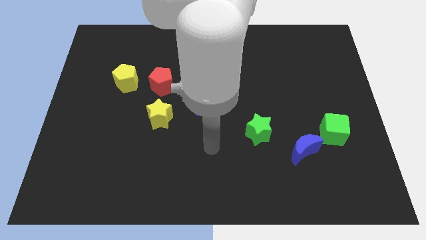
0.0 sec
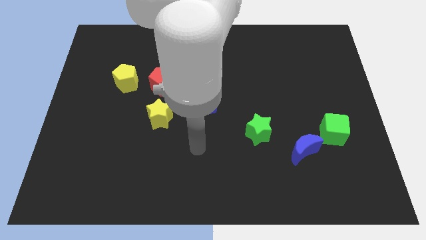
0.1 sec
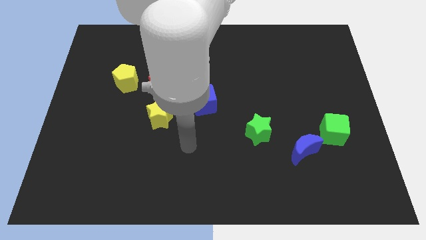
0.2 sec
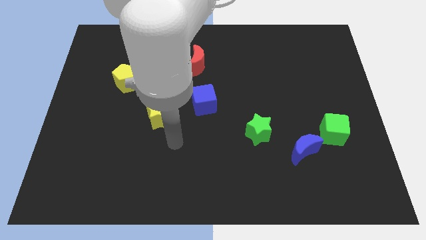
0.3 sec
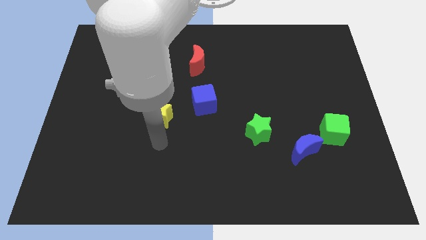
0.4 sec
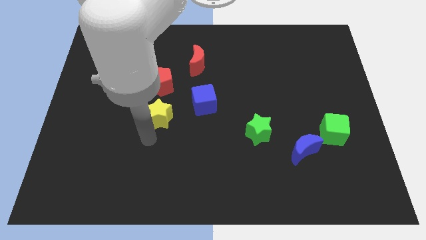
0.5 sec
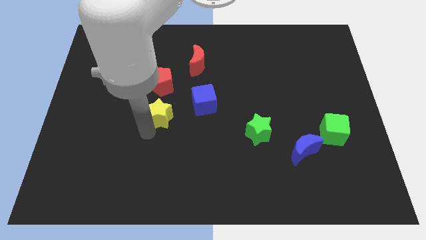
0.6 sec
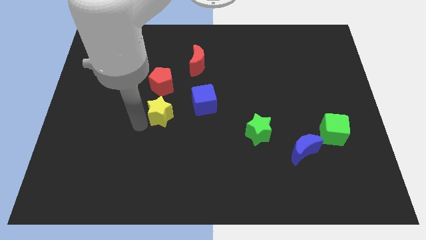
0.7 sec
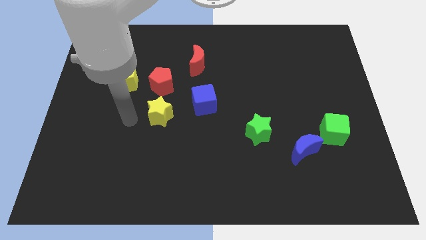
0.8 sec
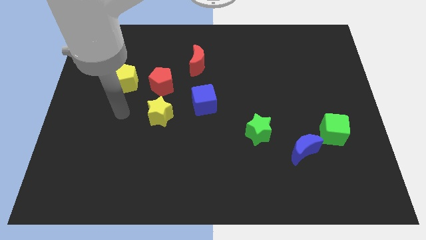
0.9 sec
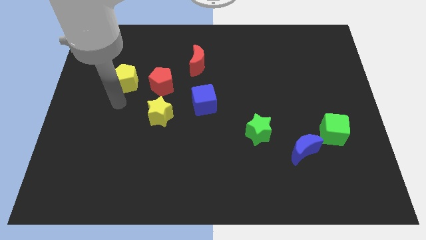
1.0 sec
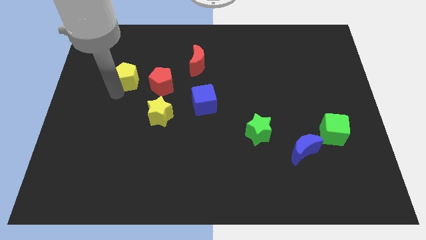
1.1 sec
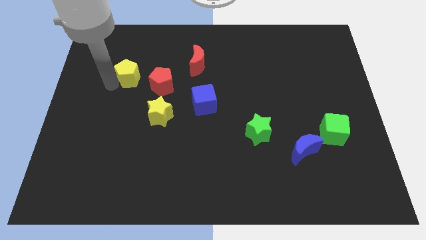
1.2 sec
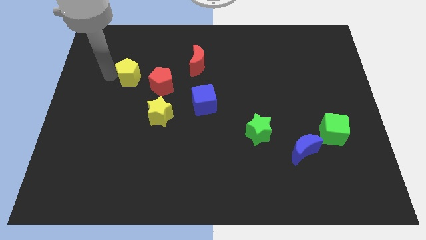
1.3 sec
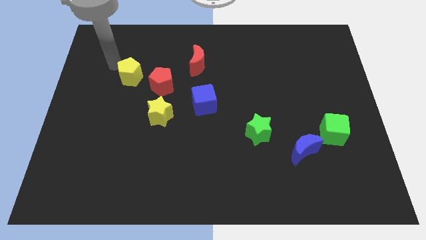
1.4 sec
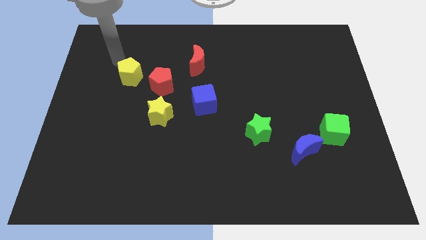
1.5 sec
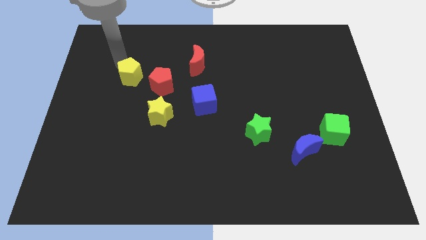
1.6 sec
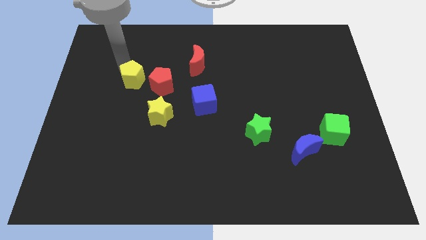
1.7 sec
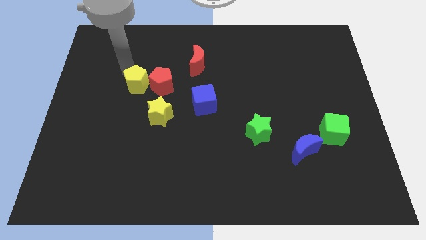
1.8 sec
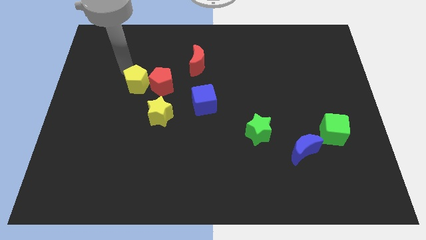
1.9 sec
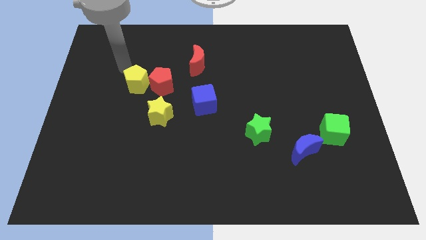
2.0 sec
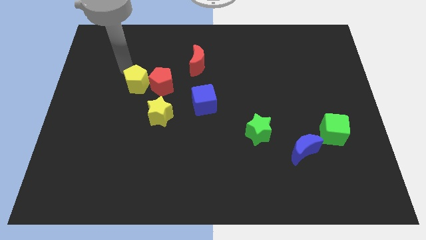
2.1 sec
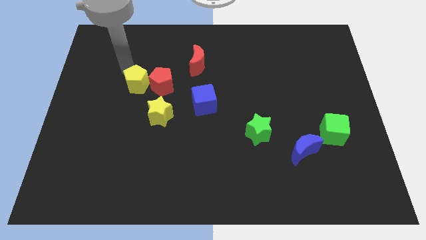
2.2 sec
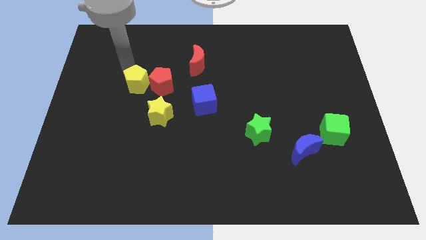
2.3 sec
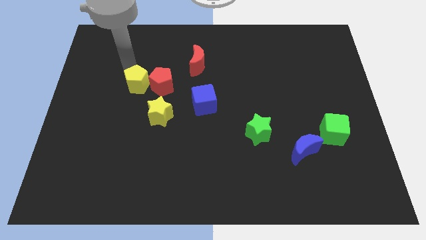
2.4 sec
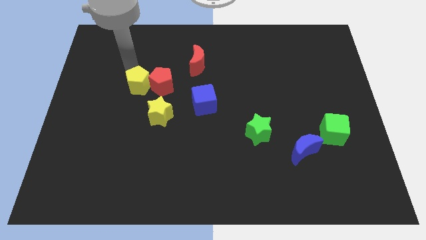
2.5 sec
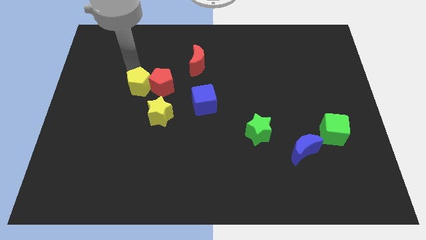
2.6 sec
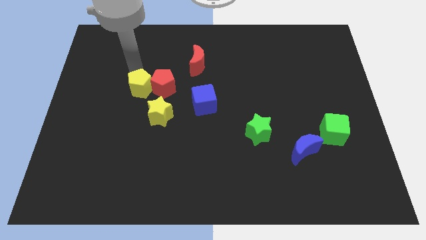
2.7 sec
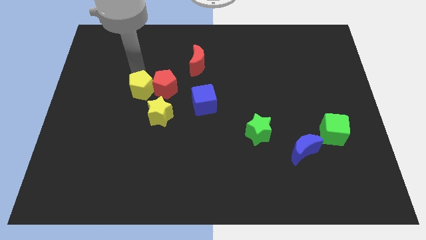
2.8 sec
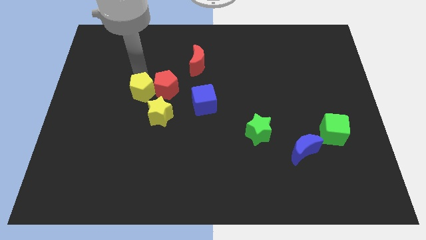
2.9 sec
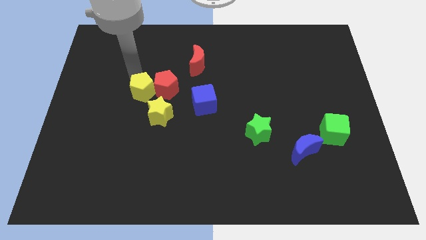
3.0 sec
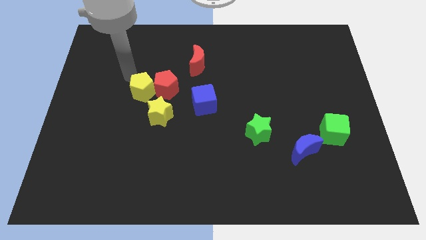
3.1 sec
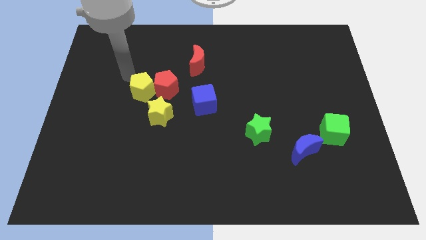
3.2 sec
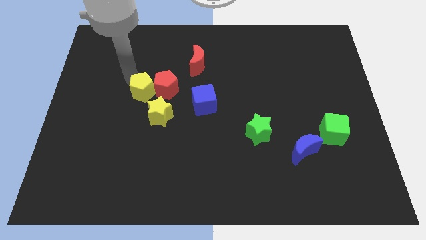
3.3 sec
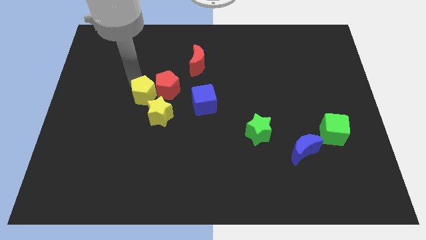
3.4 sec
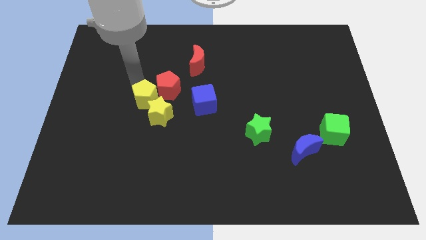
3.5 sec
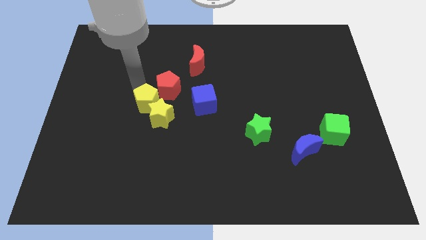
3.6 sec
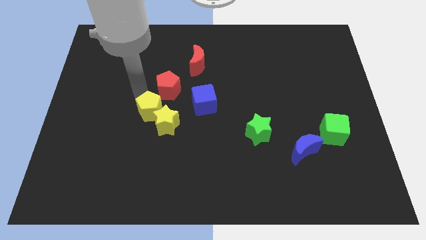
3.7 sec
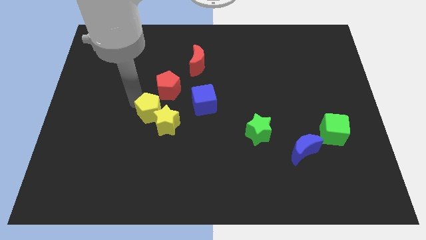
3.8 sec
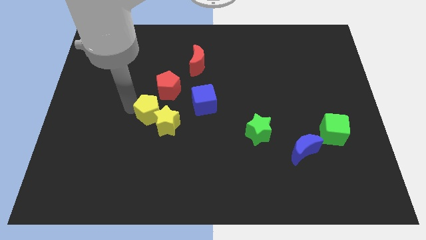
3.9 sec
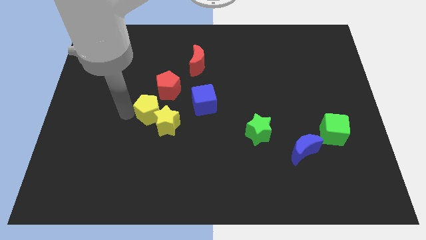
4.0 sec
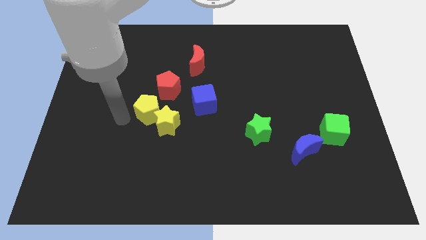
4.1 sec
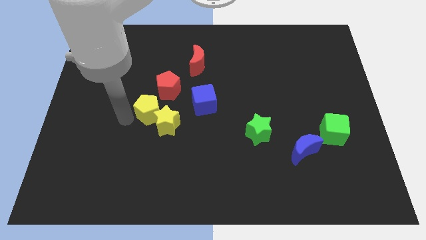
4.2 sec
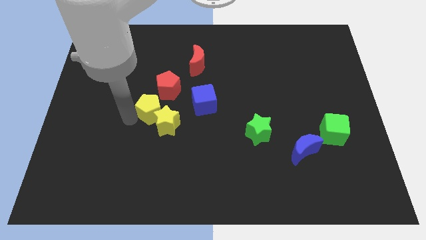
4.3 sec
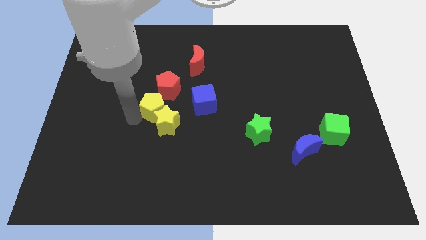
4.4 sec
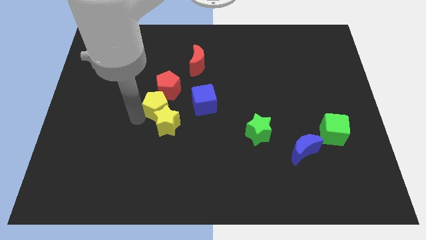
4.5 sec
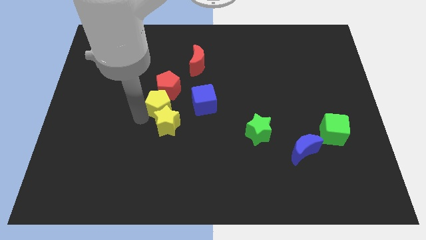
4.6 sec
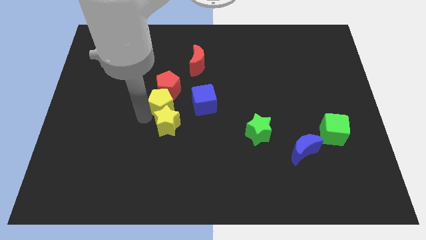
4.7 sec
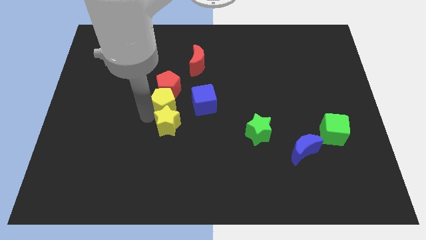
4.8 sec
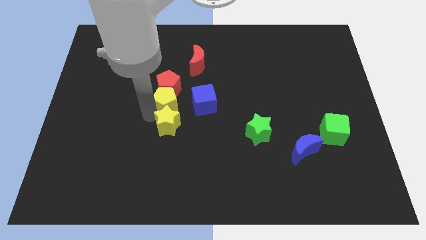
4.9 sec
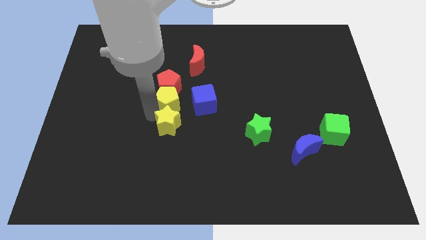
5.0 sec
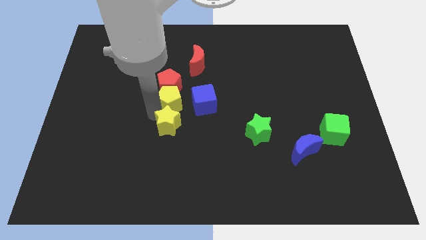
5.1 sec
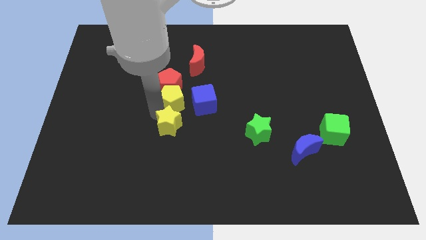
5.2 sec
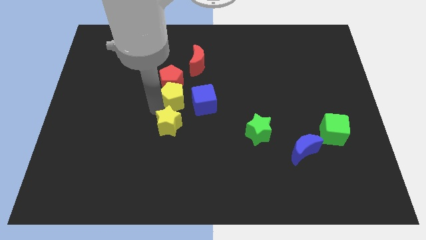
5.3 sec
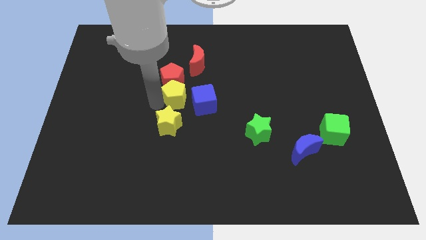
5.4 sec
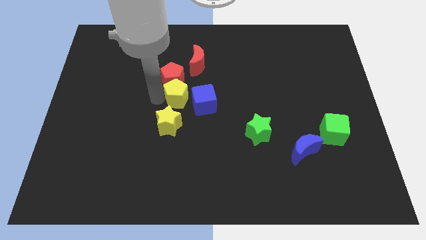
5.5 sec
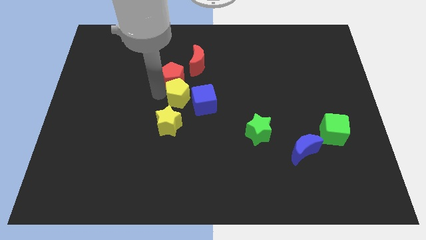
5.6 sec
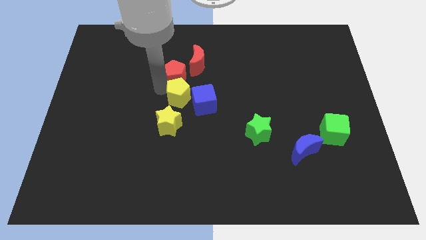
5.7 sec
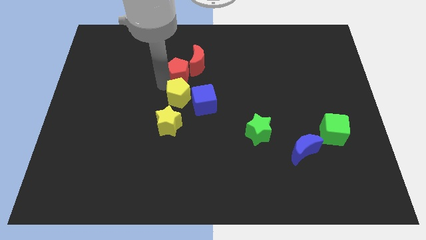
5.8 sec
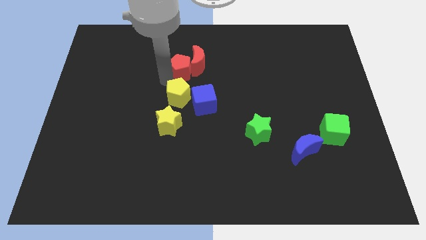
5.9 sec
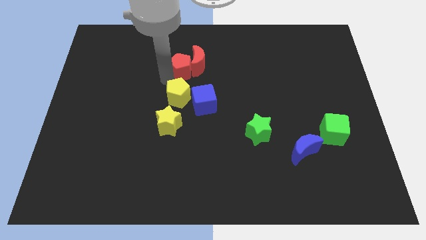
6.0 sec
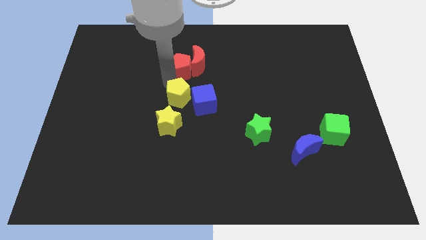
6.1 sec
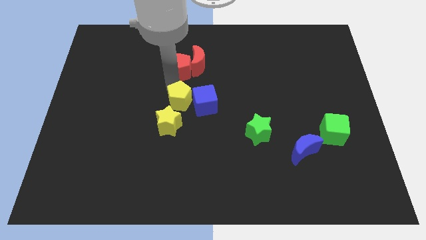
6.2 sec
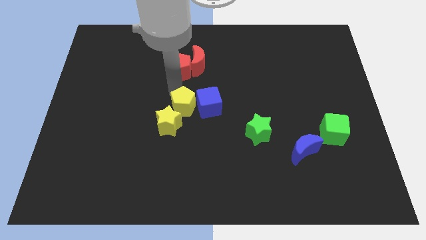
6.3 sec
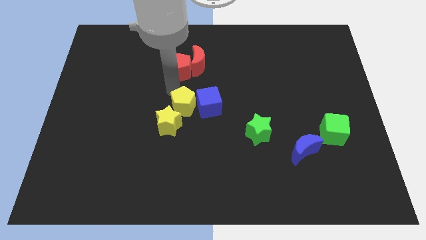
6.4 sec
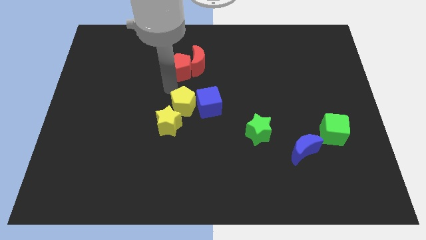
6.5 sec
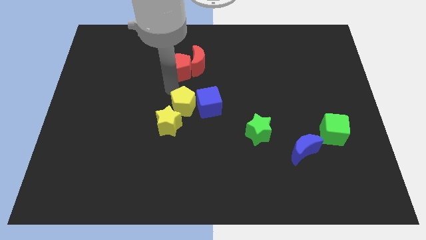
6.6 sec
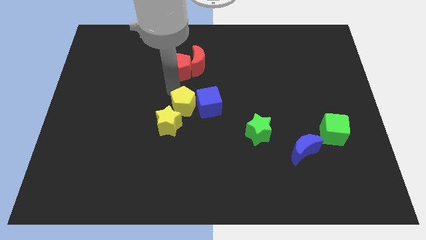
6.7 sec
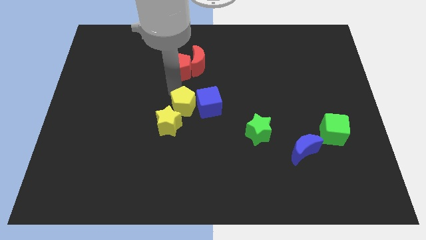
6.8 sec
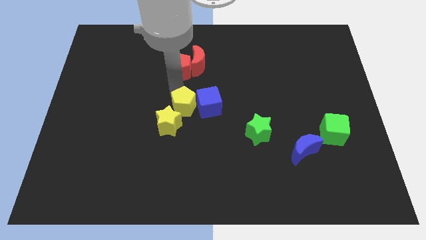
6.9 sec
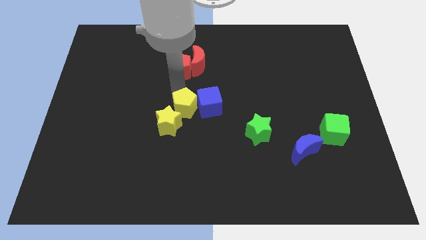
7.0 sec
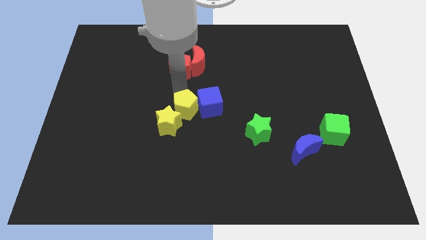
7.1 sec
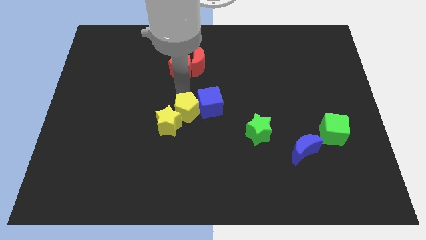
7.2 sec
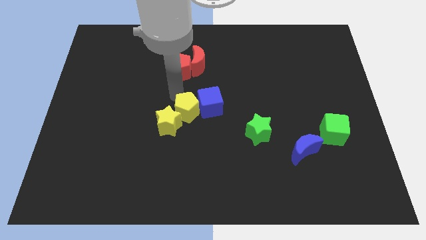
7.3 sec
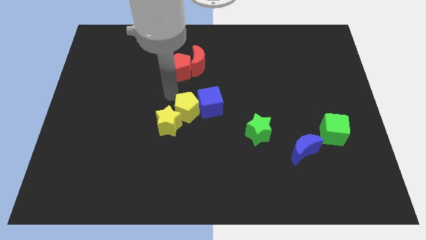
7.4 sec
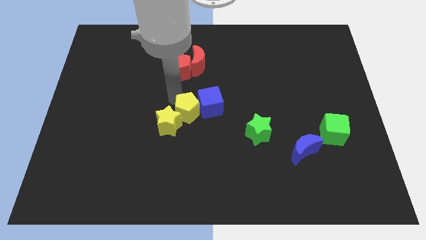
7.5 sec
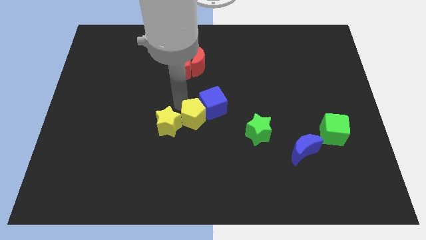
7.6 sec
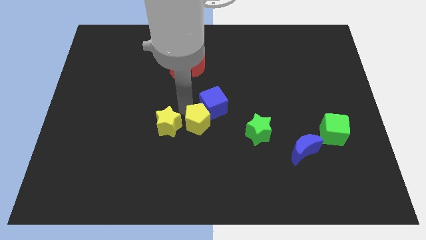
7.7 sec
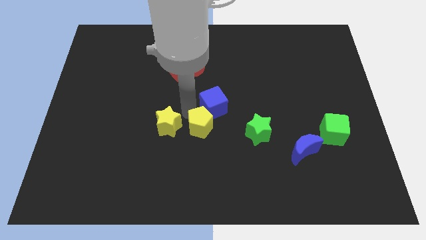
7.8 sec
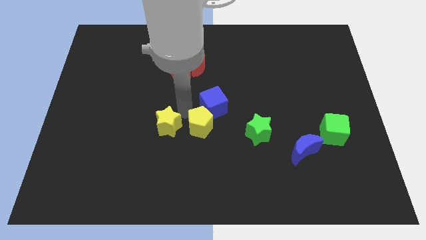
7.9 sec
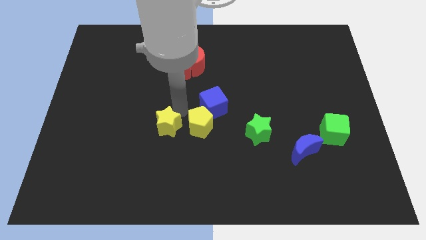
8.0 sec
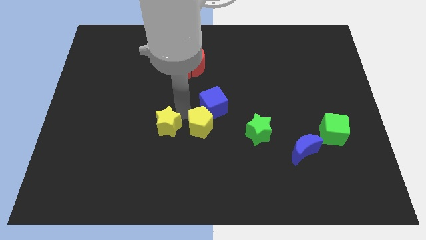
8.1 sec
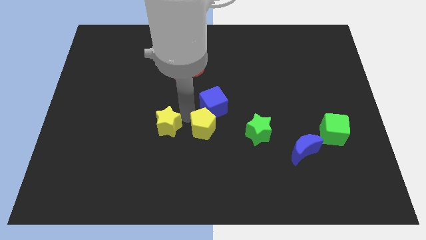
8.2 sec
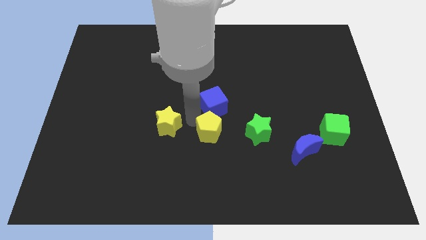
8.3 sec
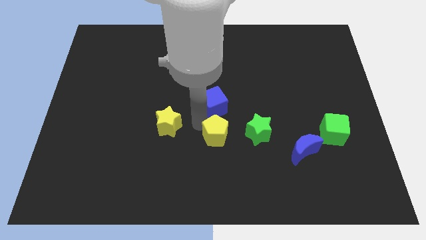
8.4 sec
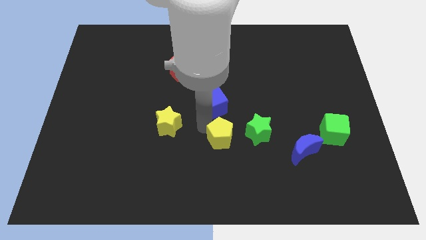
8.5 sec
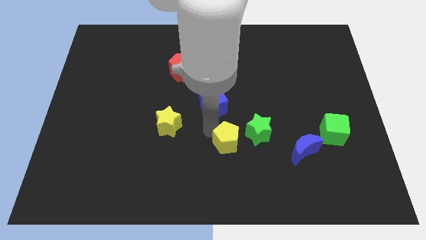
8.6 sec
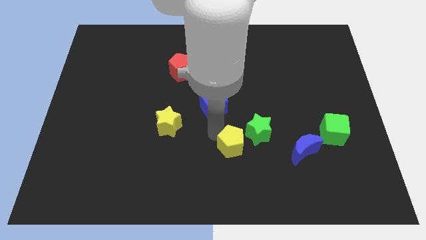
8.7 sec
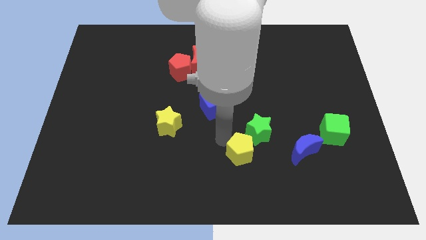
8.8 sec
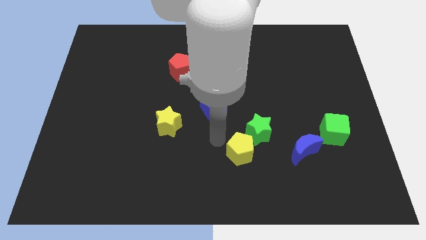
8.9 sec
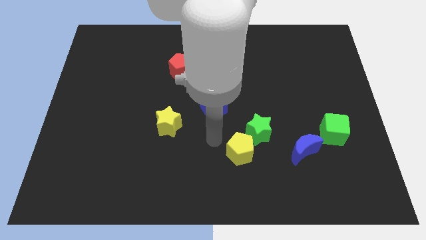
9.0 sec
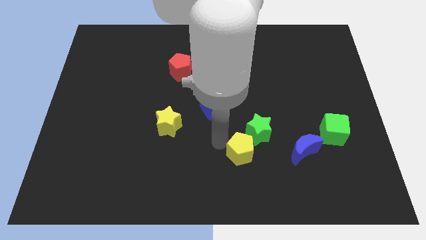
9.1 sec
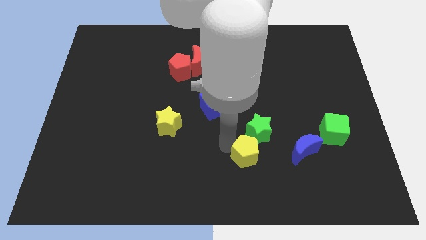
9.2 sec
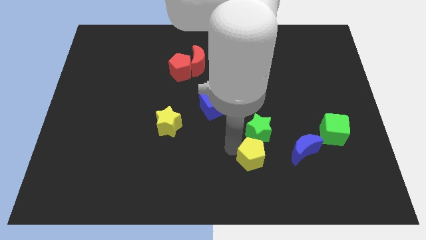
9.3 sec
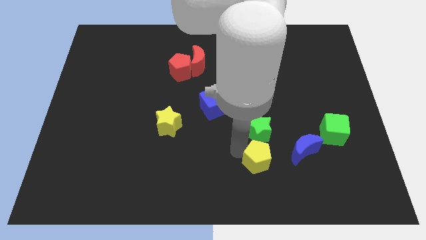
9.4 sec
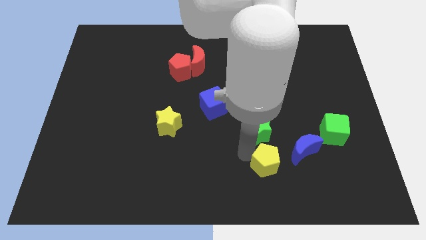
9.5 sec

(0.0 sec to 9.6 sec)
put the yellow pentagon to the bottom left of the blue moon
